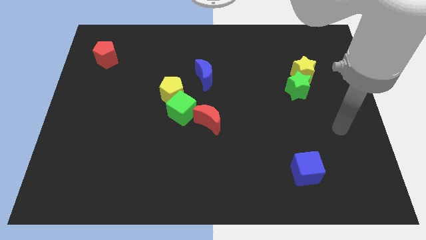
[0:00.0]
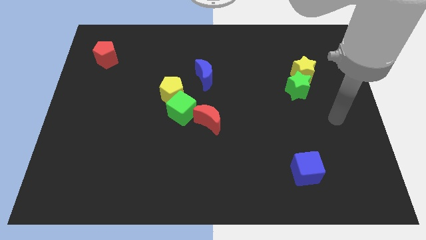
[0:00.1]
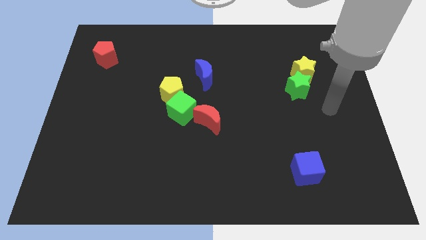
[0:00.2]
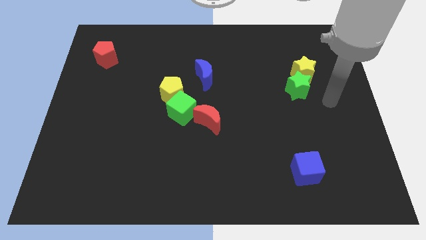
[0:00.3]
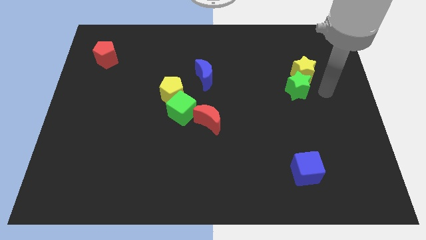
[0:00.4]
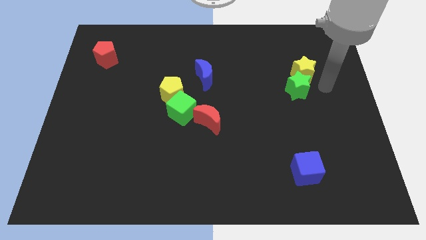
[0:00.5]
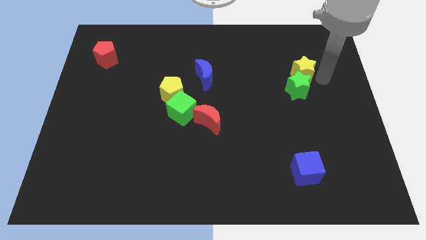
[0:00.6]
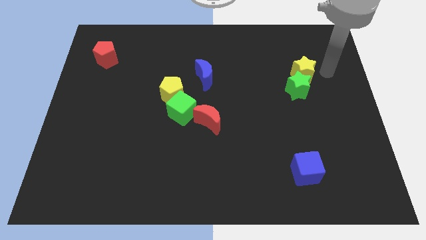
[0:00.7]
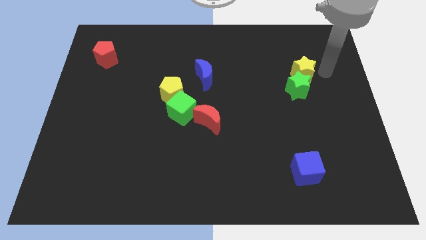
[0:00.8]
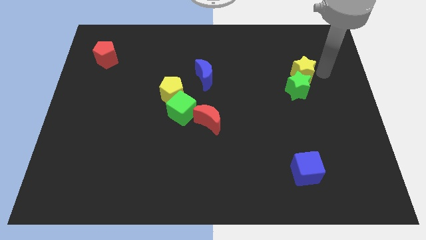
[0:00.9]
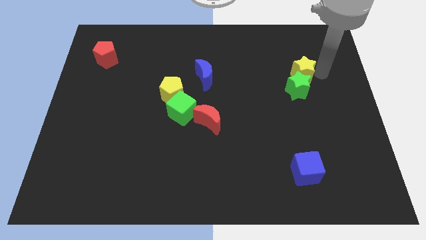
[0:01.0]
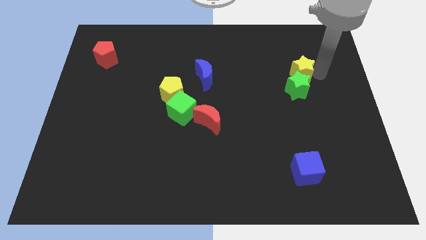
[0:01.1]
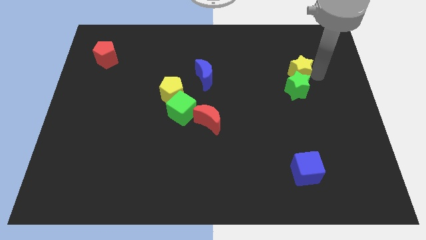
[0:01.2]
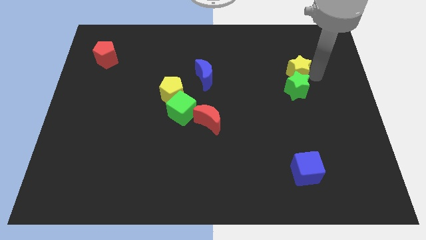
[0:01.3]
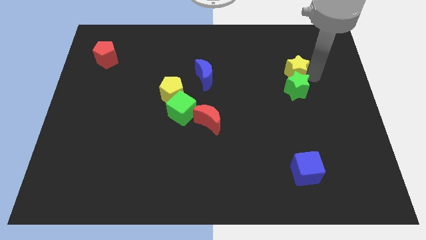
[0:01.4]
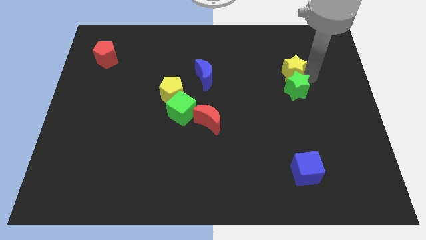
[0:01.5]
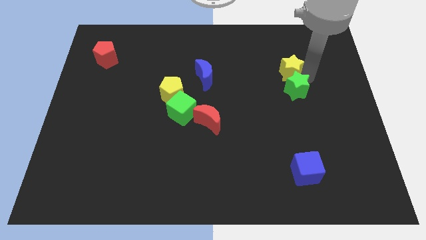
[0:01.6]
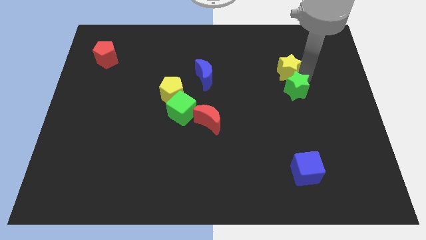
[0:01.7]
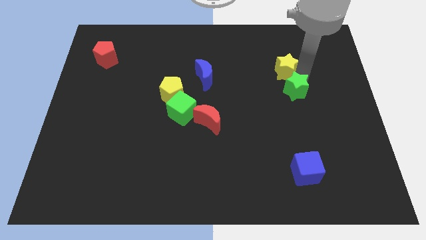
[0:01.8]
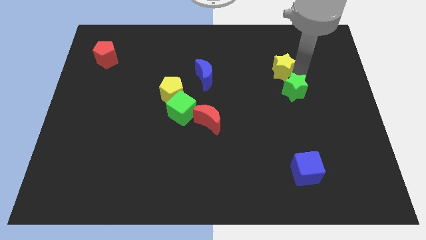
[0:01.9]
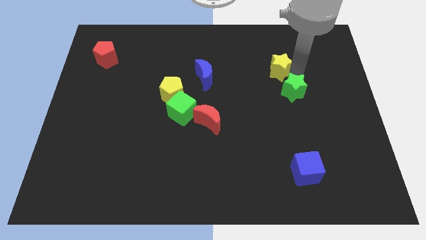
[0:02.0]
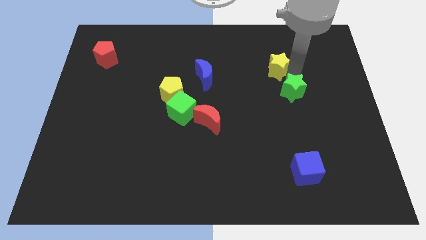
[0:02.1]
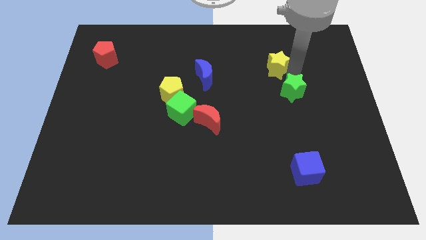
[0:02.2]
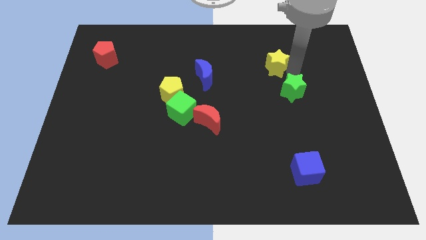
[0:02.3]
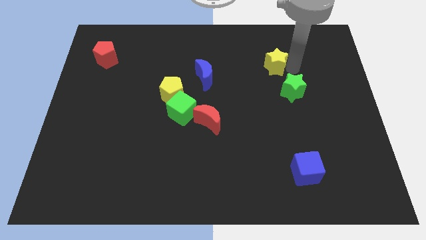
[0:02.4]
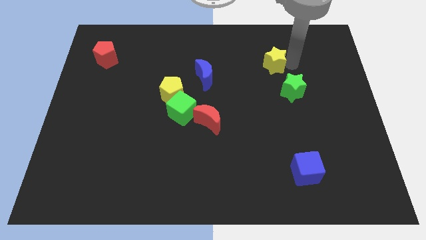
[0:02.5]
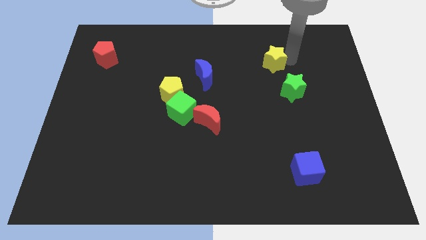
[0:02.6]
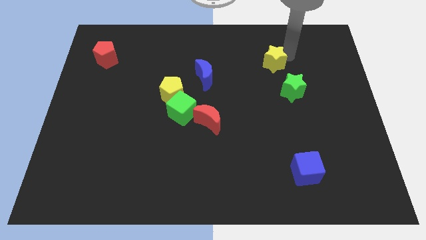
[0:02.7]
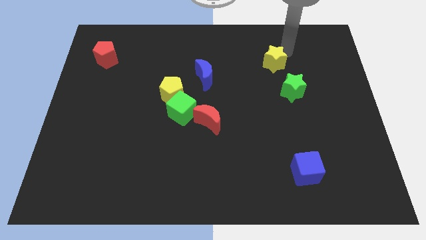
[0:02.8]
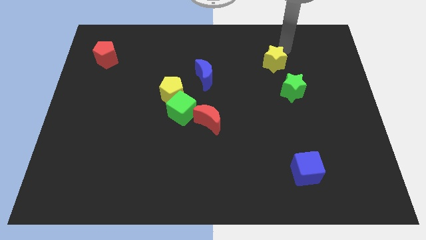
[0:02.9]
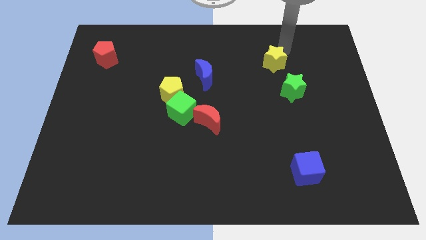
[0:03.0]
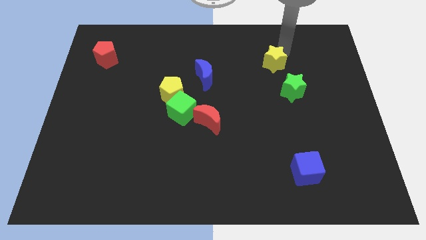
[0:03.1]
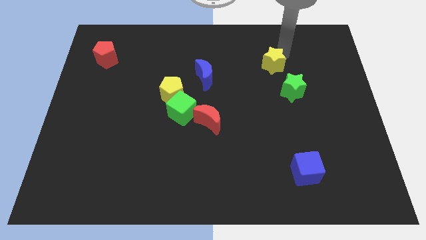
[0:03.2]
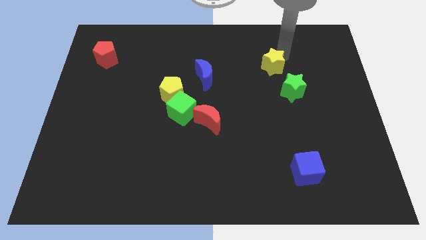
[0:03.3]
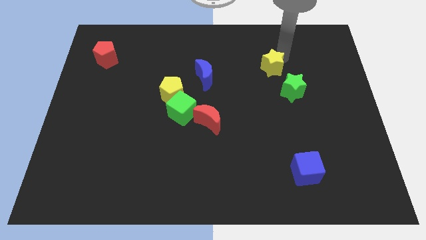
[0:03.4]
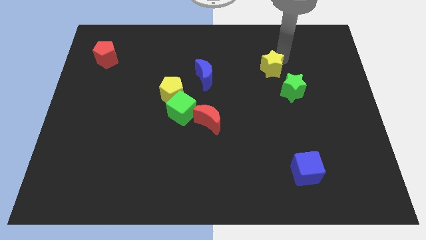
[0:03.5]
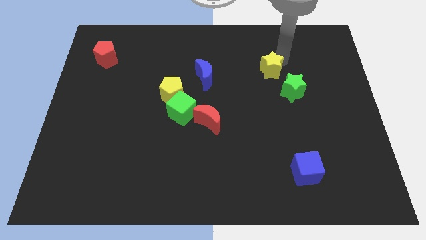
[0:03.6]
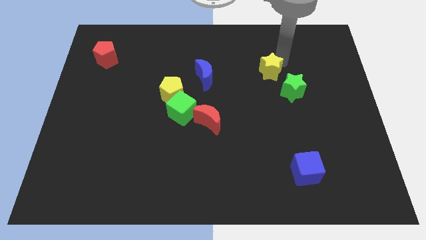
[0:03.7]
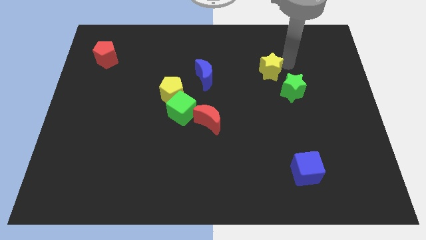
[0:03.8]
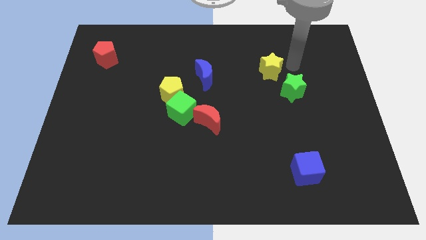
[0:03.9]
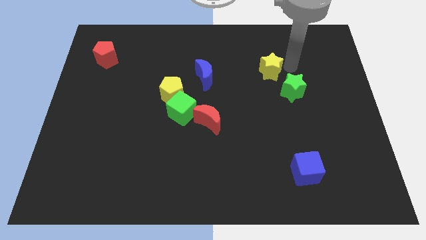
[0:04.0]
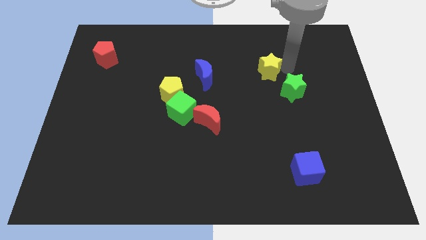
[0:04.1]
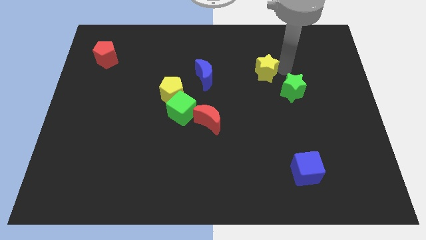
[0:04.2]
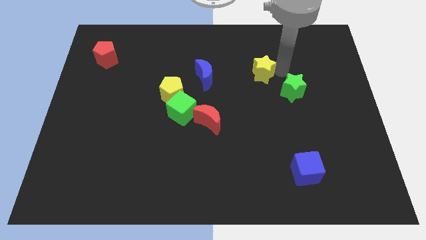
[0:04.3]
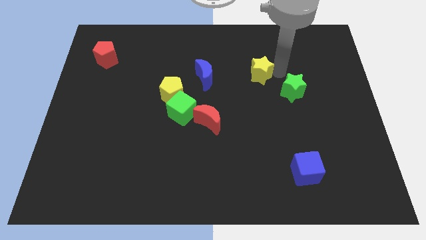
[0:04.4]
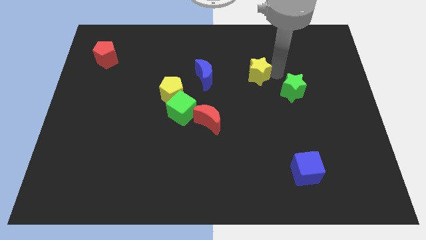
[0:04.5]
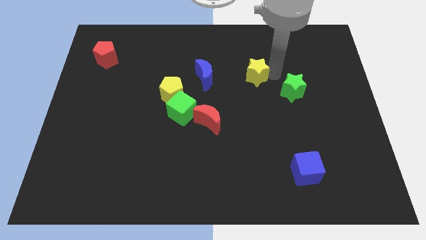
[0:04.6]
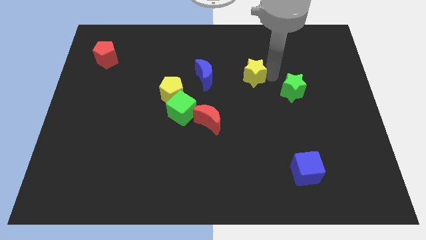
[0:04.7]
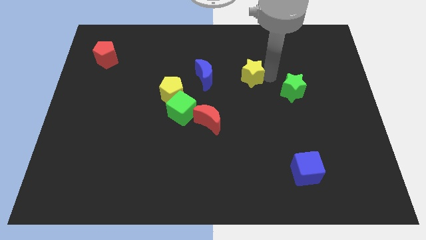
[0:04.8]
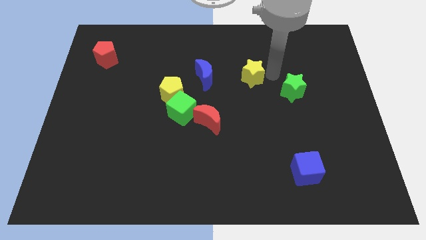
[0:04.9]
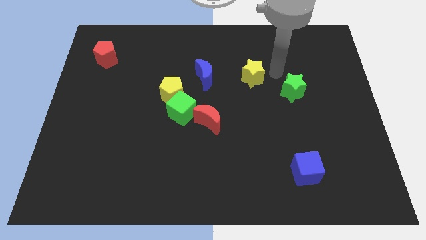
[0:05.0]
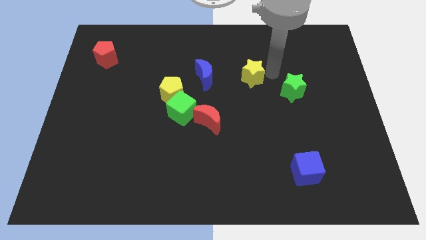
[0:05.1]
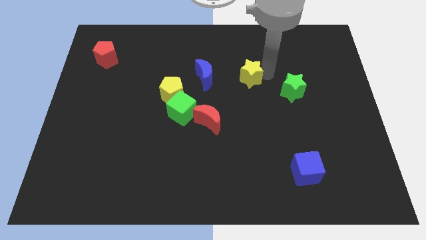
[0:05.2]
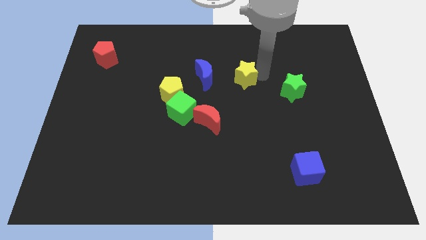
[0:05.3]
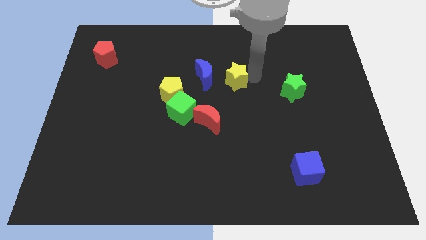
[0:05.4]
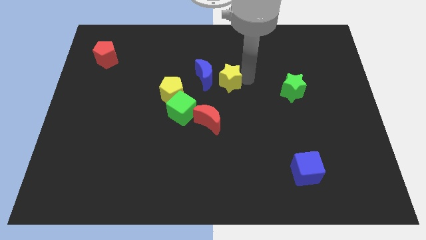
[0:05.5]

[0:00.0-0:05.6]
push the yellow star to the blue moon

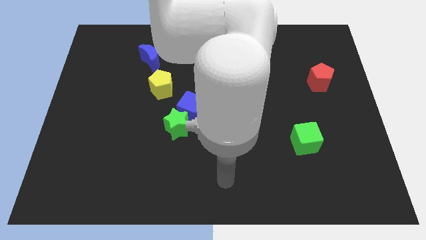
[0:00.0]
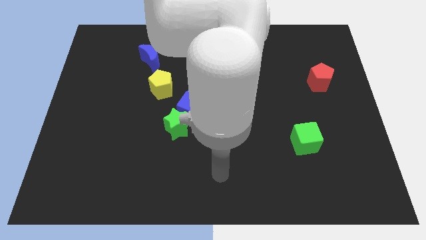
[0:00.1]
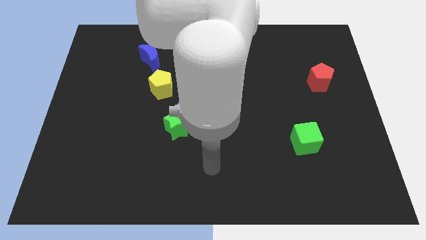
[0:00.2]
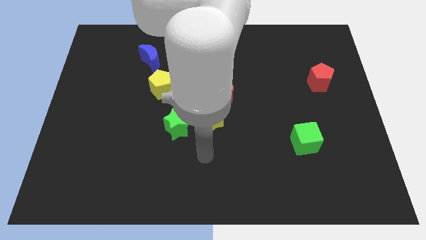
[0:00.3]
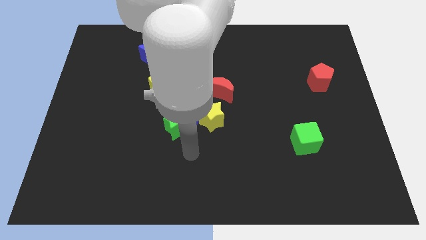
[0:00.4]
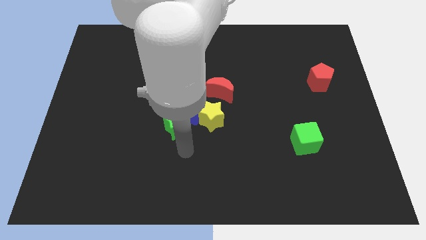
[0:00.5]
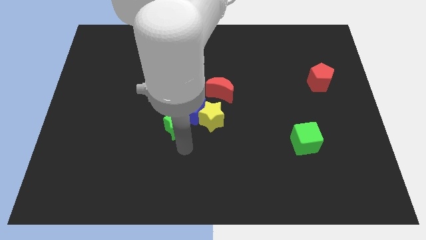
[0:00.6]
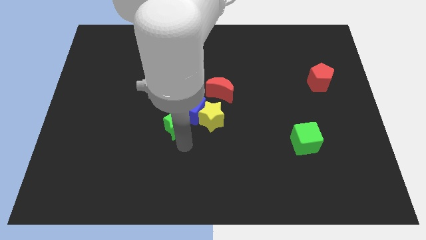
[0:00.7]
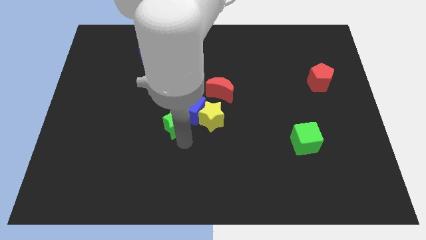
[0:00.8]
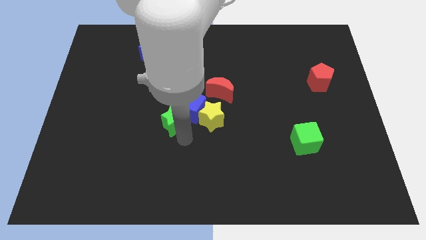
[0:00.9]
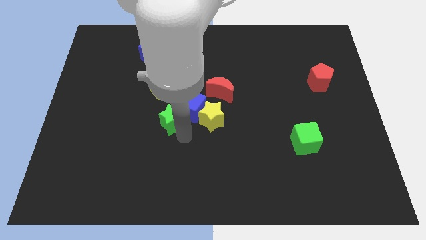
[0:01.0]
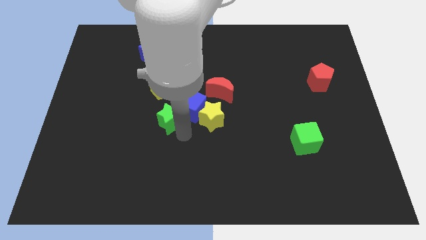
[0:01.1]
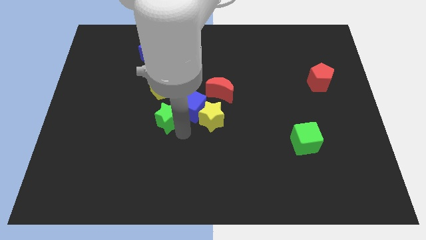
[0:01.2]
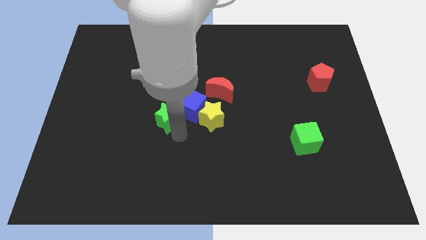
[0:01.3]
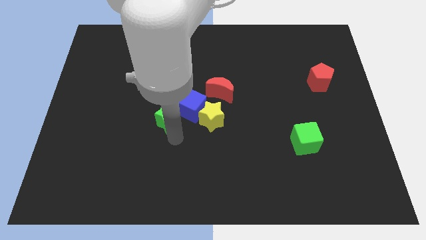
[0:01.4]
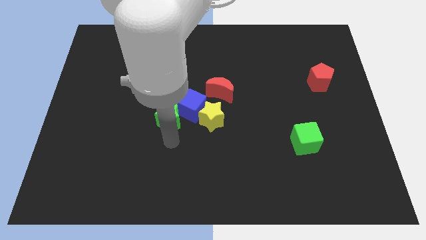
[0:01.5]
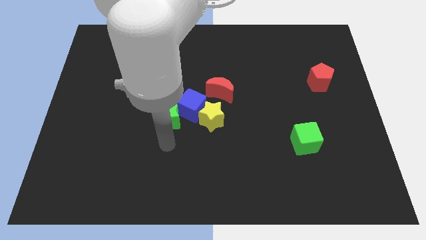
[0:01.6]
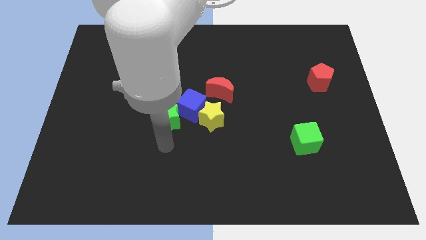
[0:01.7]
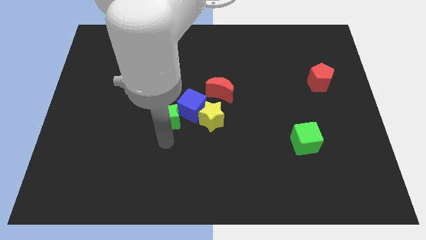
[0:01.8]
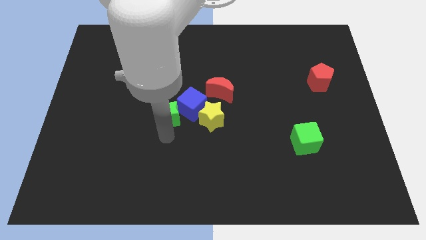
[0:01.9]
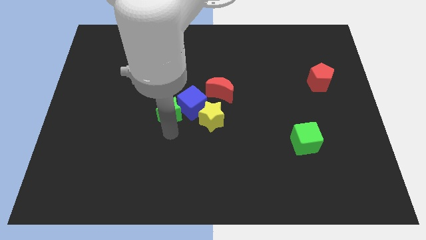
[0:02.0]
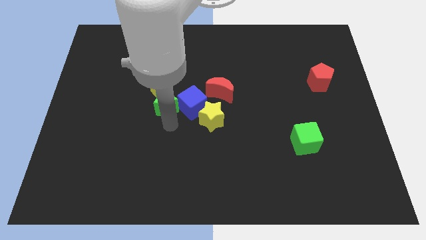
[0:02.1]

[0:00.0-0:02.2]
push the green star next to the yellow pentagon

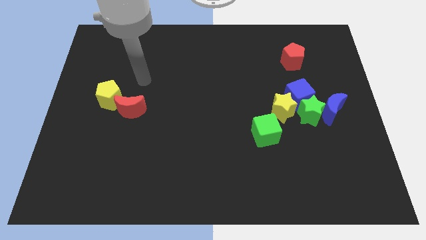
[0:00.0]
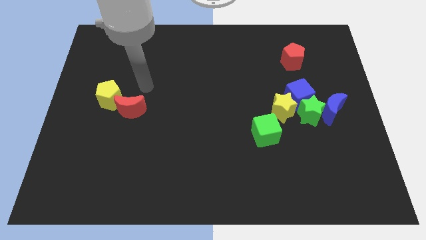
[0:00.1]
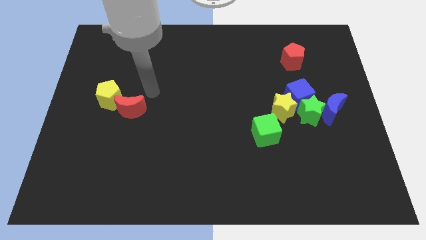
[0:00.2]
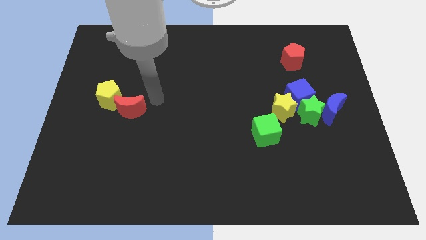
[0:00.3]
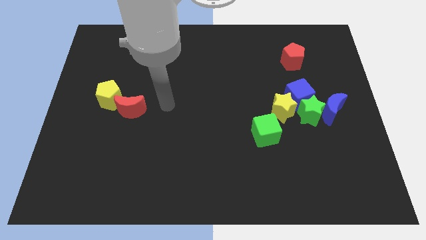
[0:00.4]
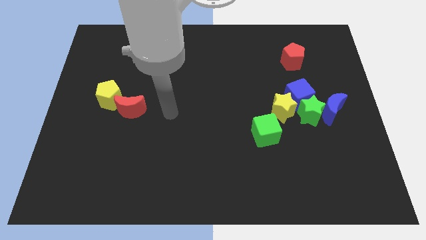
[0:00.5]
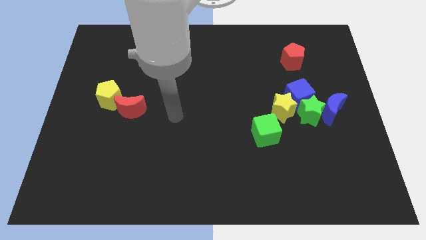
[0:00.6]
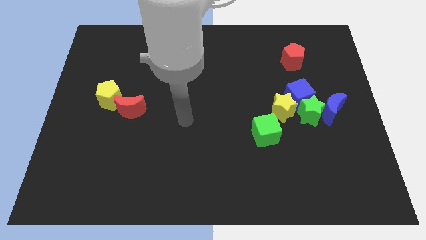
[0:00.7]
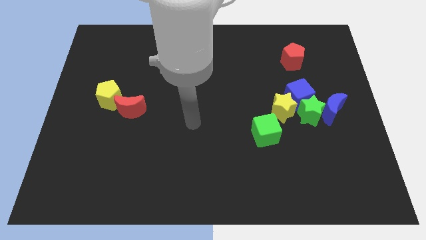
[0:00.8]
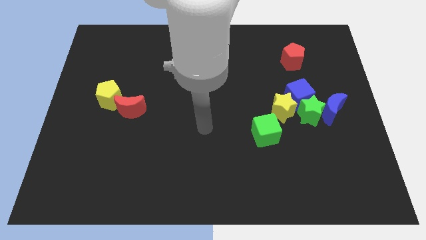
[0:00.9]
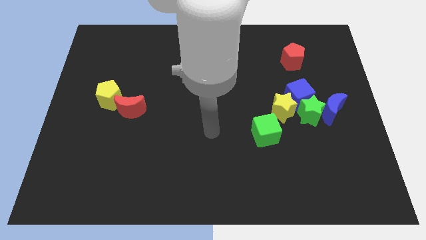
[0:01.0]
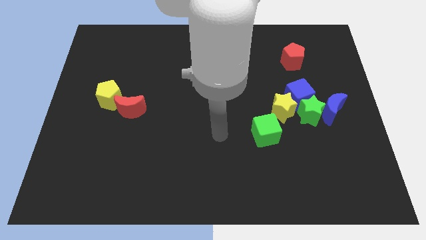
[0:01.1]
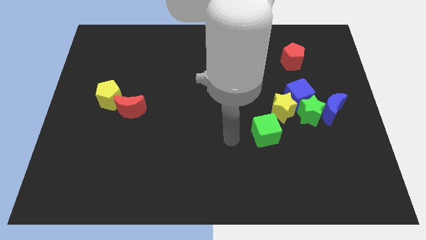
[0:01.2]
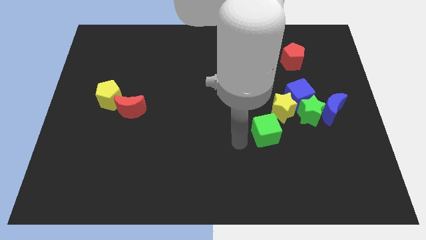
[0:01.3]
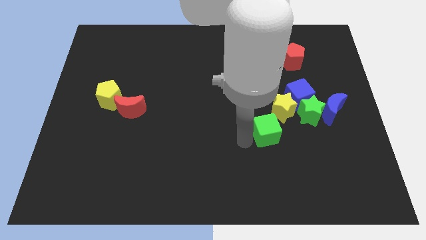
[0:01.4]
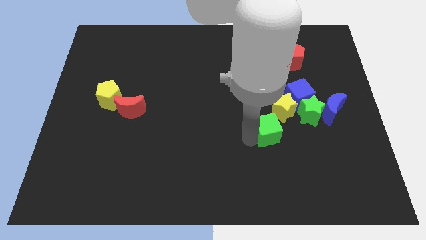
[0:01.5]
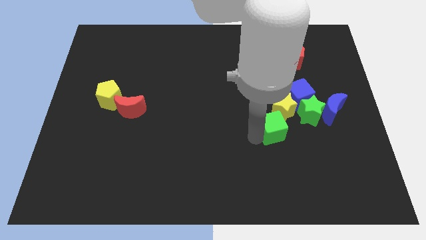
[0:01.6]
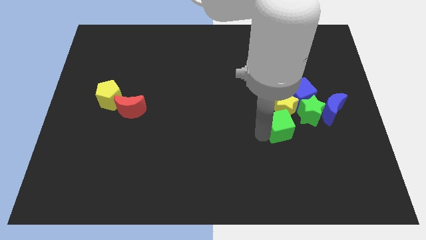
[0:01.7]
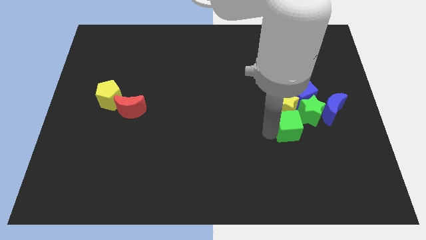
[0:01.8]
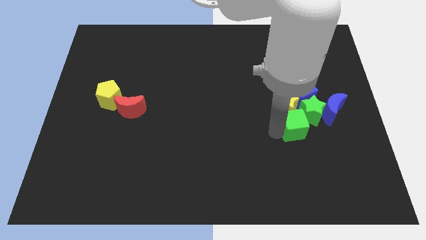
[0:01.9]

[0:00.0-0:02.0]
slide the green cube towards the green star
